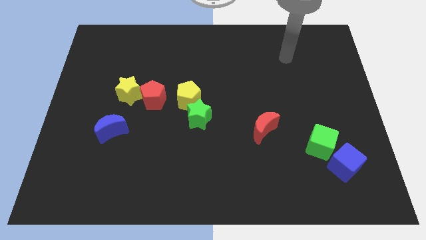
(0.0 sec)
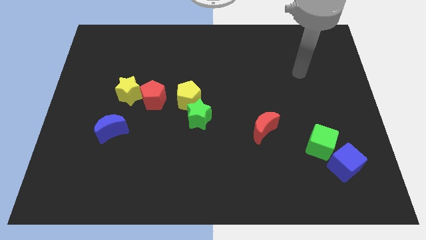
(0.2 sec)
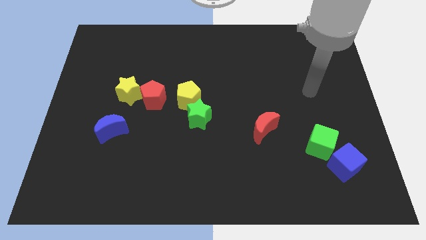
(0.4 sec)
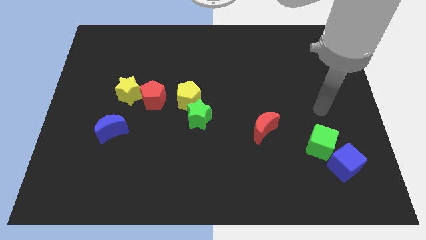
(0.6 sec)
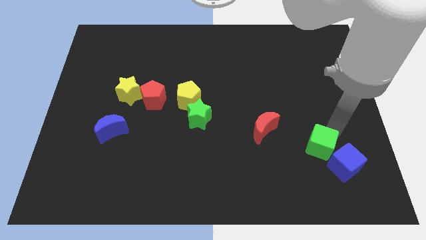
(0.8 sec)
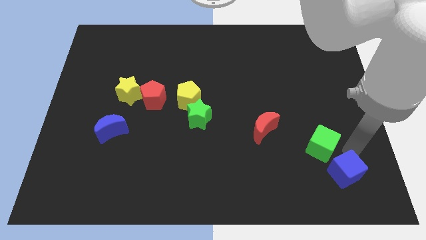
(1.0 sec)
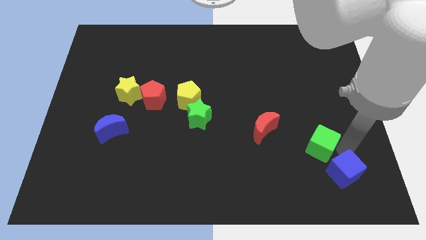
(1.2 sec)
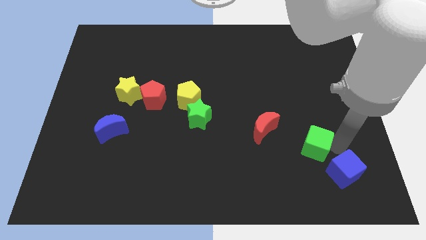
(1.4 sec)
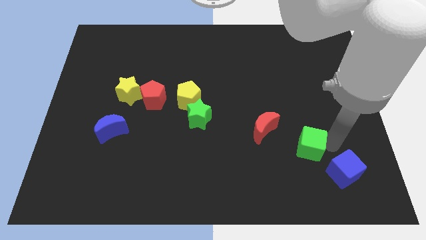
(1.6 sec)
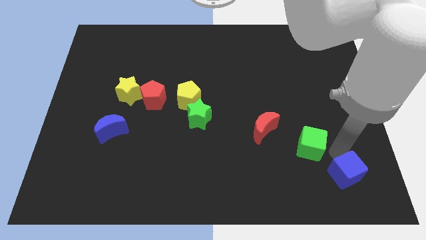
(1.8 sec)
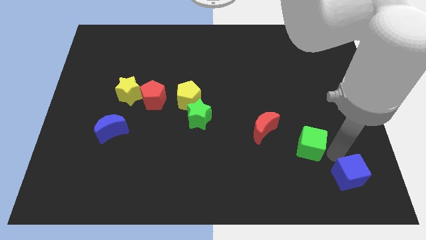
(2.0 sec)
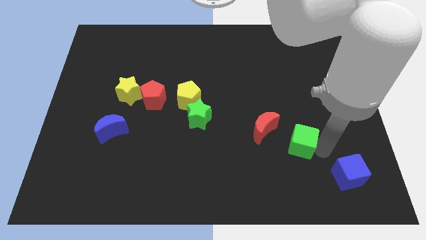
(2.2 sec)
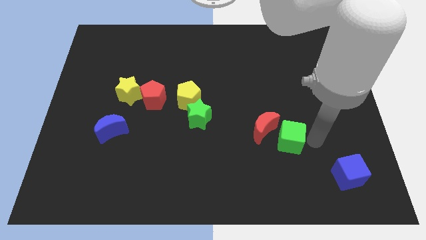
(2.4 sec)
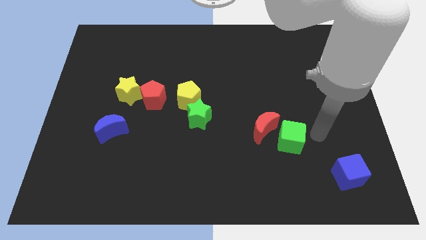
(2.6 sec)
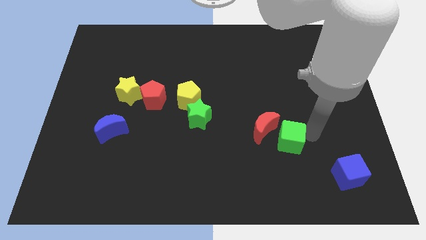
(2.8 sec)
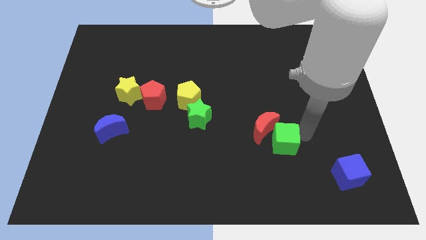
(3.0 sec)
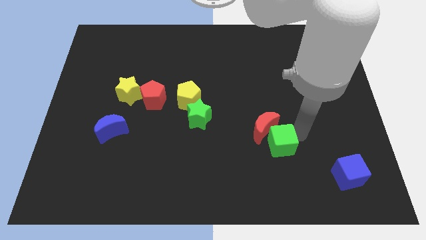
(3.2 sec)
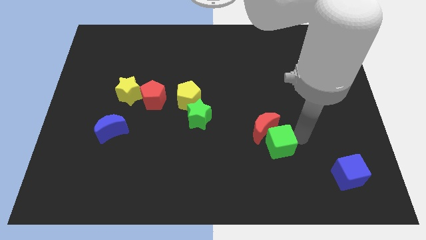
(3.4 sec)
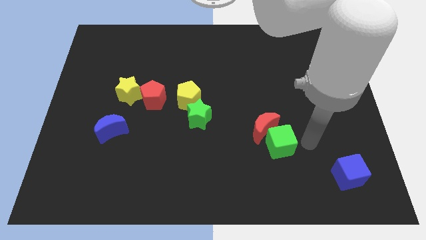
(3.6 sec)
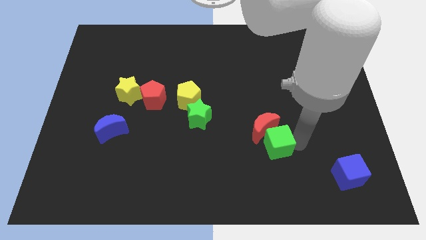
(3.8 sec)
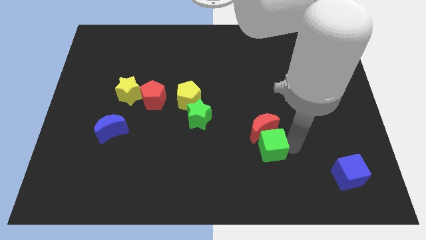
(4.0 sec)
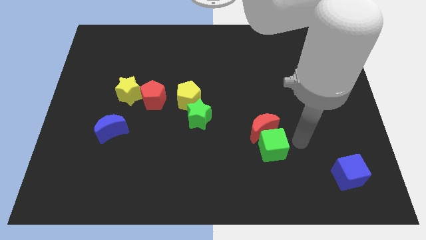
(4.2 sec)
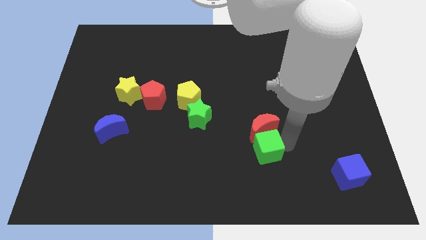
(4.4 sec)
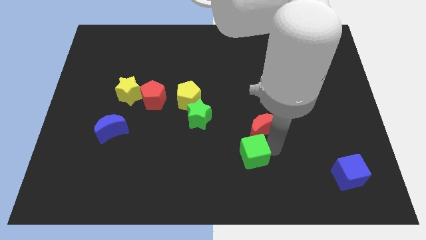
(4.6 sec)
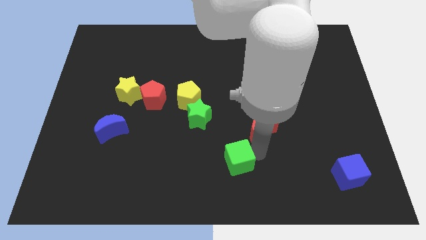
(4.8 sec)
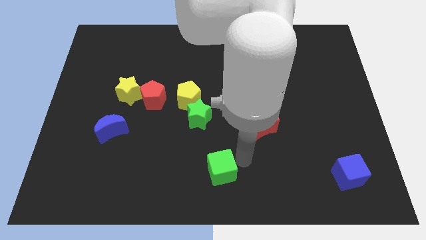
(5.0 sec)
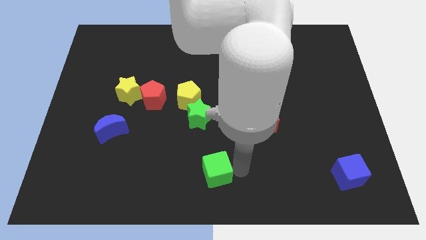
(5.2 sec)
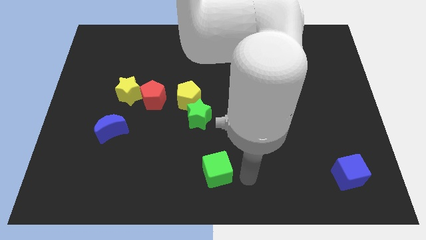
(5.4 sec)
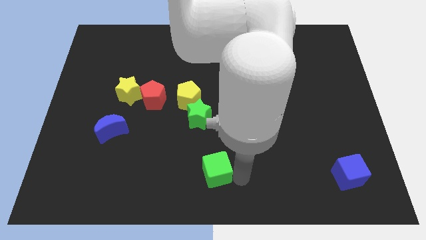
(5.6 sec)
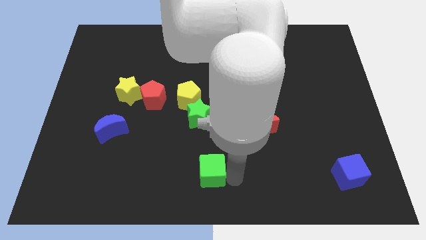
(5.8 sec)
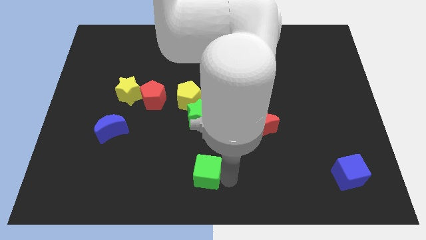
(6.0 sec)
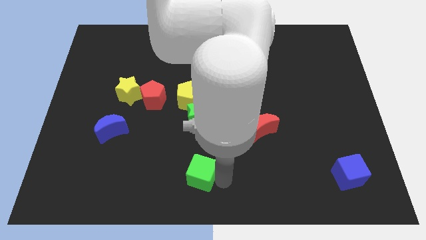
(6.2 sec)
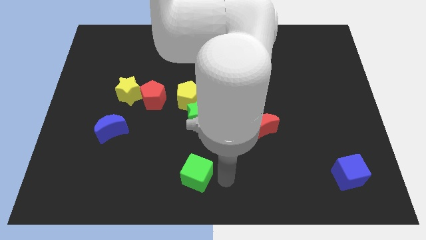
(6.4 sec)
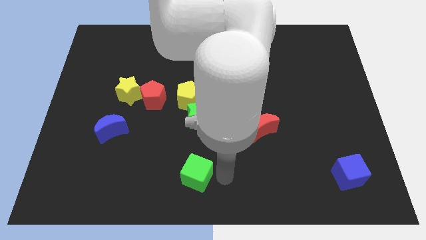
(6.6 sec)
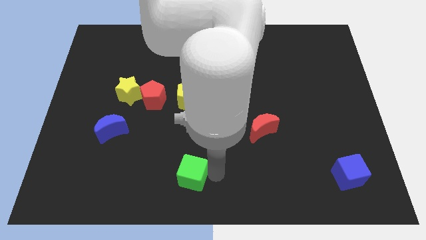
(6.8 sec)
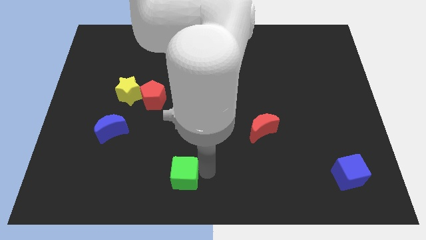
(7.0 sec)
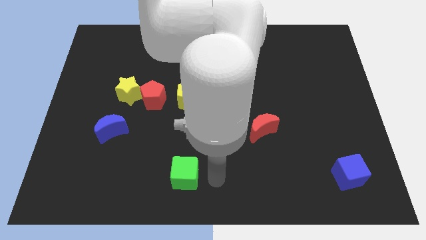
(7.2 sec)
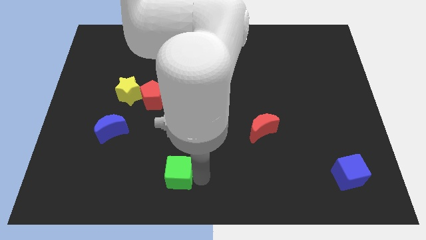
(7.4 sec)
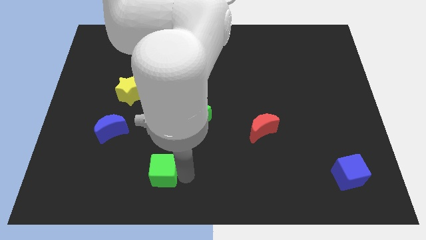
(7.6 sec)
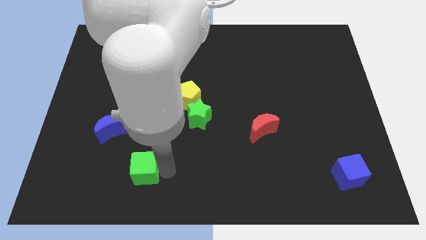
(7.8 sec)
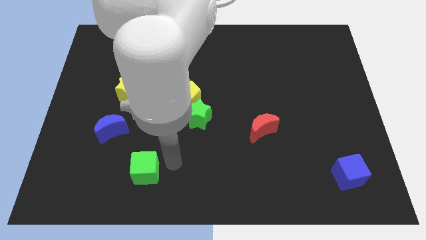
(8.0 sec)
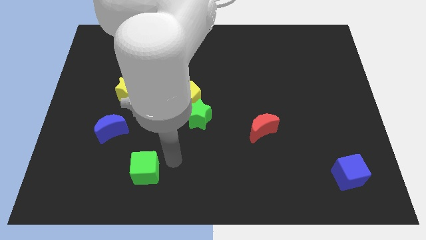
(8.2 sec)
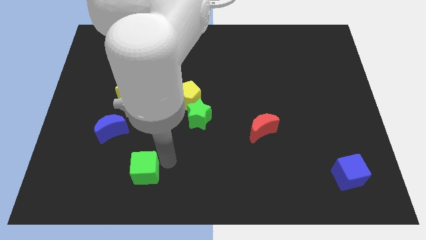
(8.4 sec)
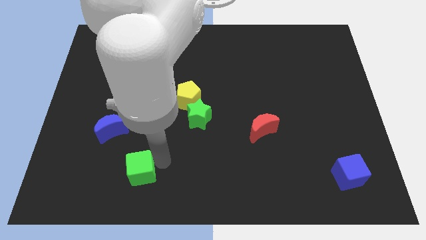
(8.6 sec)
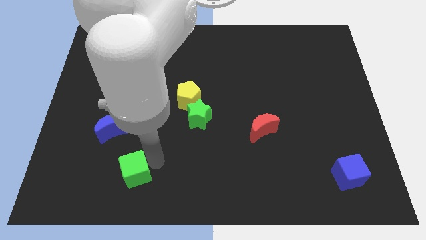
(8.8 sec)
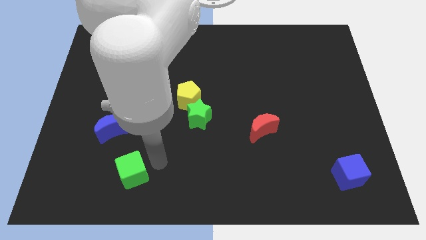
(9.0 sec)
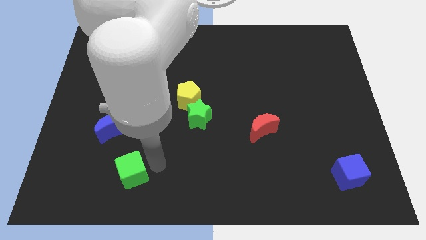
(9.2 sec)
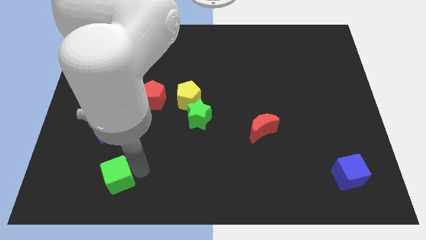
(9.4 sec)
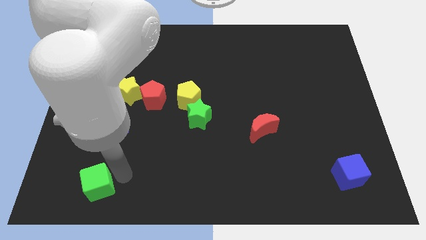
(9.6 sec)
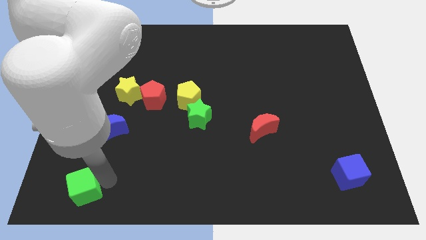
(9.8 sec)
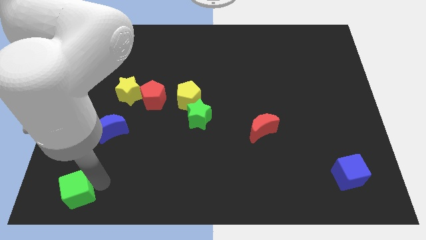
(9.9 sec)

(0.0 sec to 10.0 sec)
push the green cube to the lower left corner

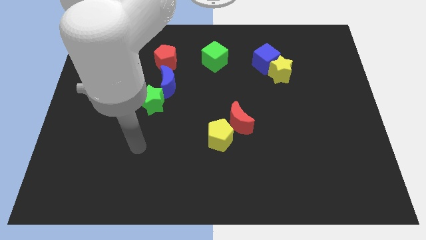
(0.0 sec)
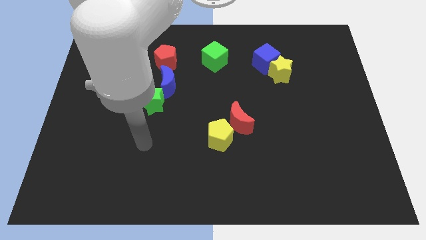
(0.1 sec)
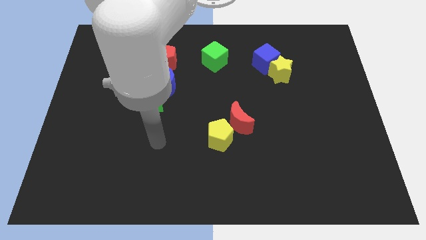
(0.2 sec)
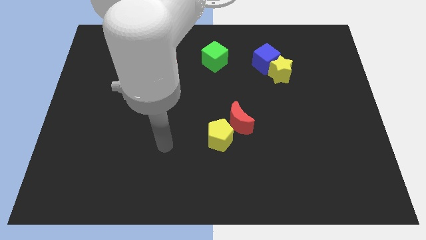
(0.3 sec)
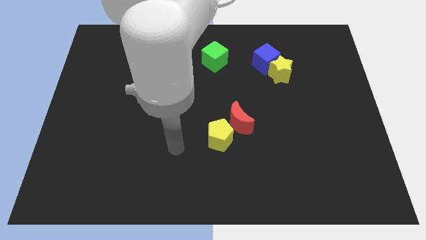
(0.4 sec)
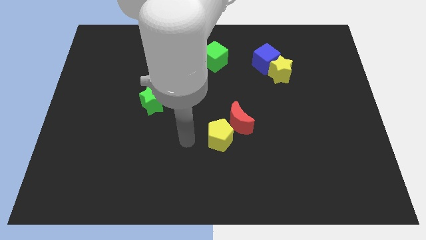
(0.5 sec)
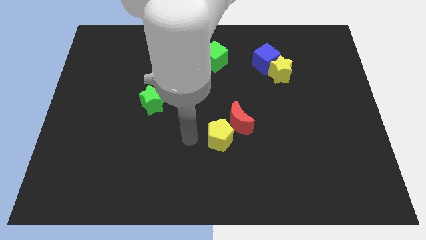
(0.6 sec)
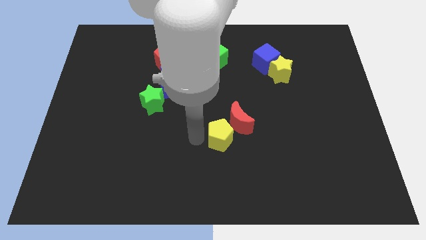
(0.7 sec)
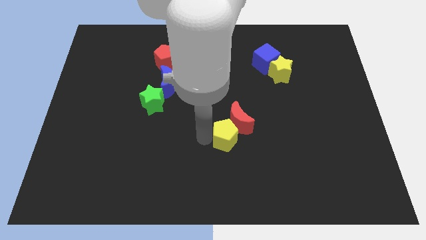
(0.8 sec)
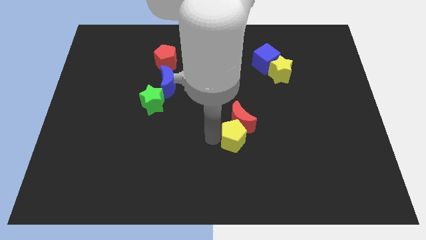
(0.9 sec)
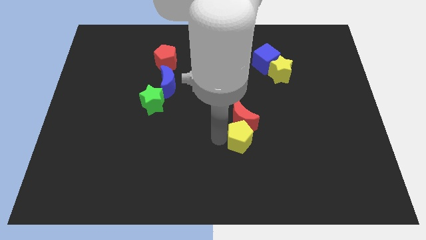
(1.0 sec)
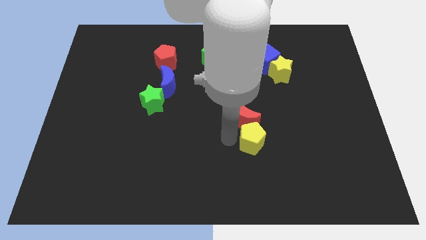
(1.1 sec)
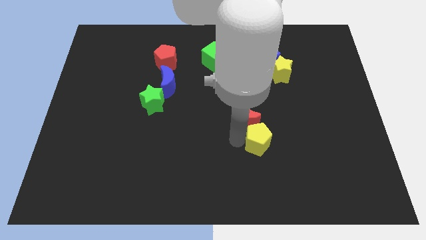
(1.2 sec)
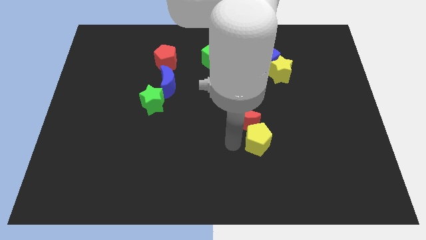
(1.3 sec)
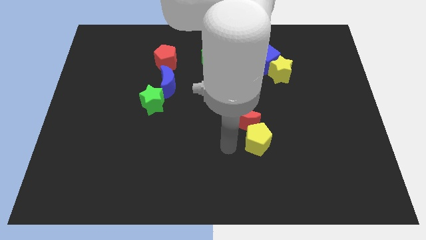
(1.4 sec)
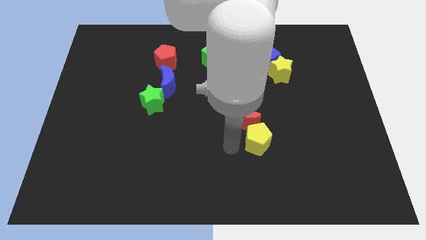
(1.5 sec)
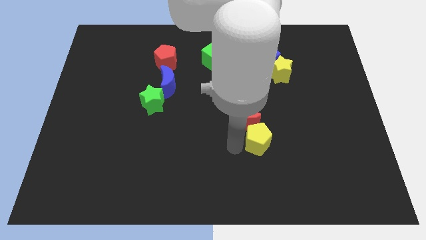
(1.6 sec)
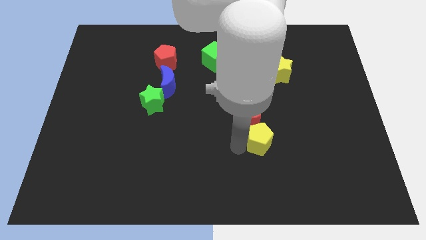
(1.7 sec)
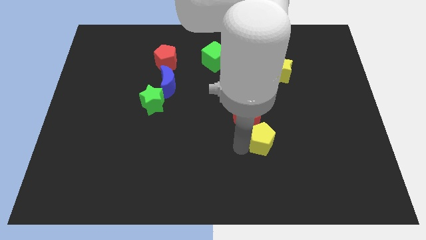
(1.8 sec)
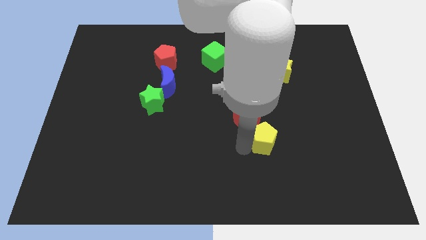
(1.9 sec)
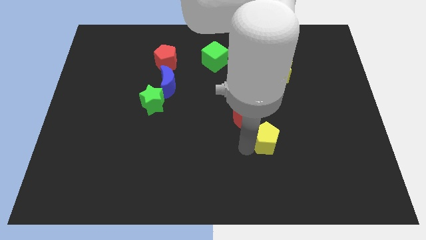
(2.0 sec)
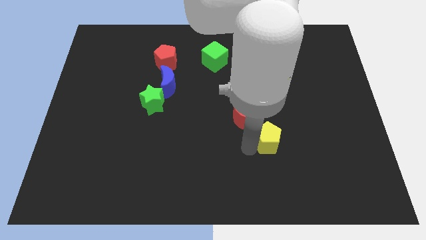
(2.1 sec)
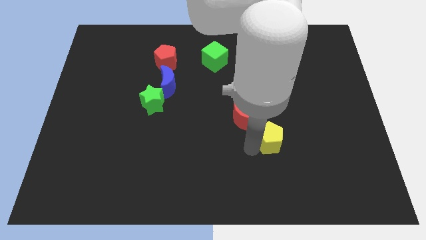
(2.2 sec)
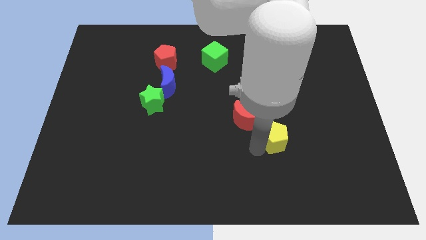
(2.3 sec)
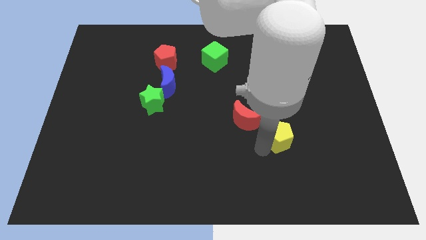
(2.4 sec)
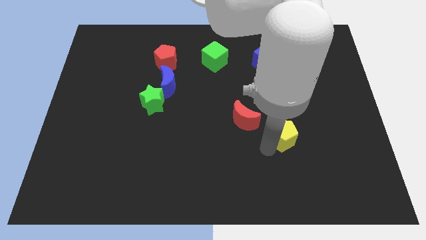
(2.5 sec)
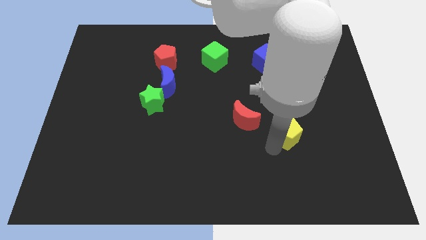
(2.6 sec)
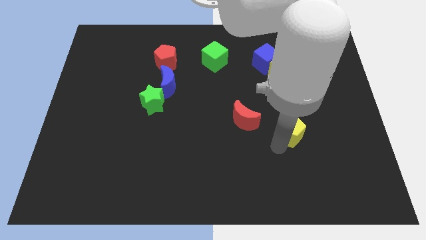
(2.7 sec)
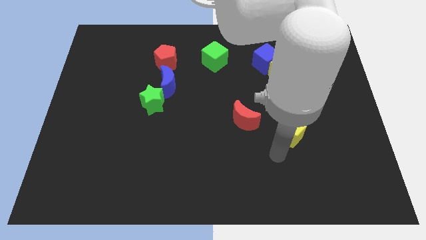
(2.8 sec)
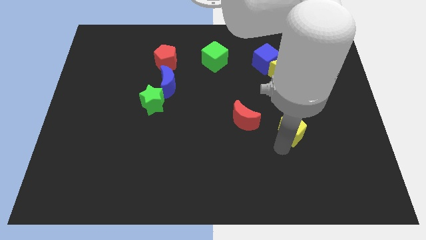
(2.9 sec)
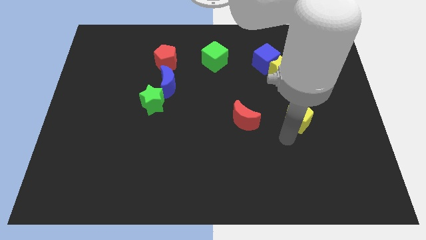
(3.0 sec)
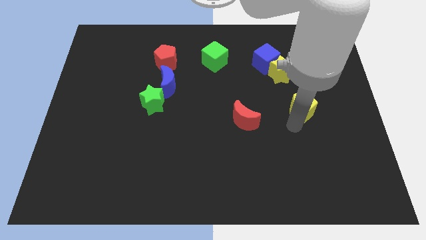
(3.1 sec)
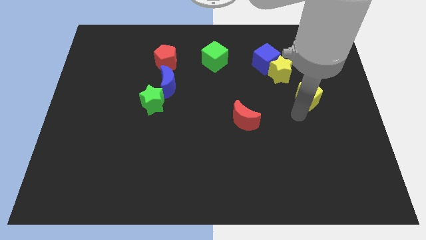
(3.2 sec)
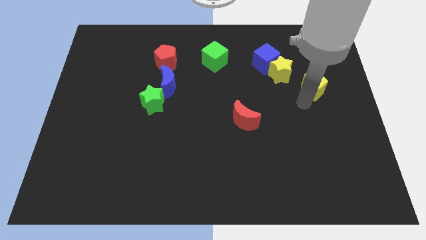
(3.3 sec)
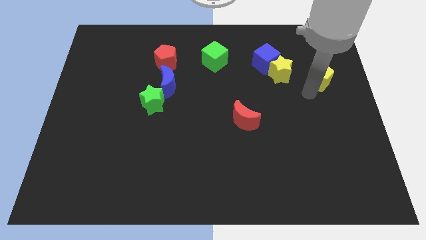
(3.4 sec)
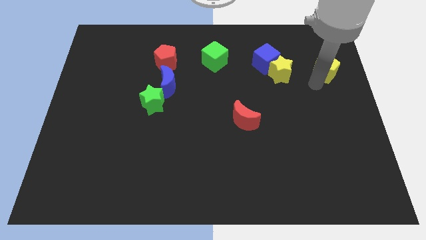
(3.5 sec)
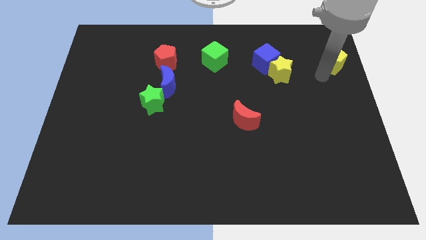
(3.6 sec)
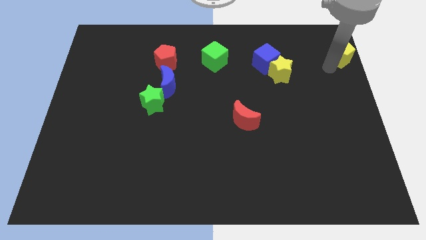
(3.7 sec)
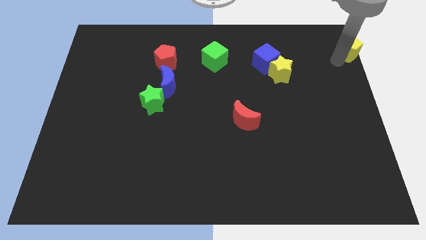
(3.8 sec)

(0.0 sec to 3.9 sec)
slide the yellow pentagon to the upper right corner
